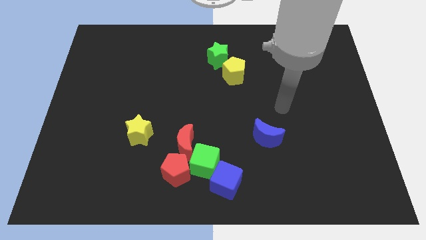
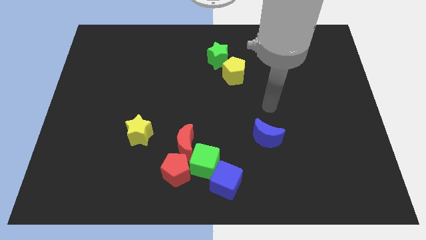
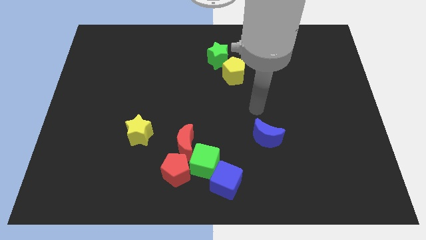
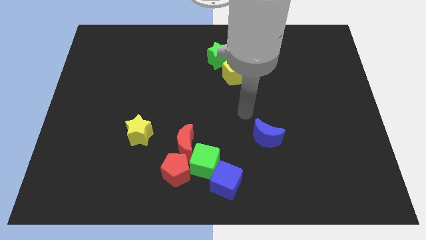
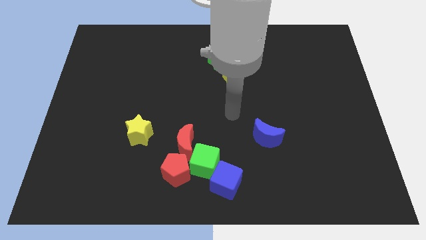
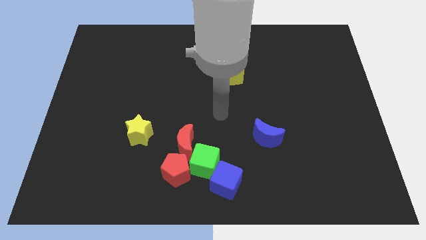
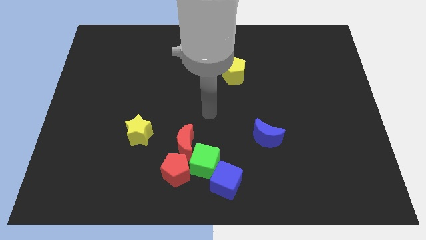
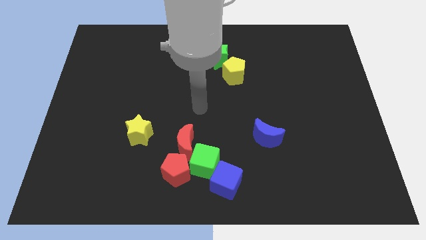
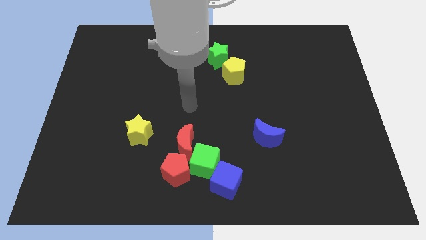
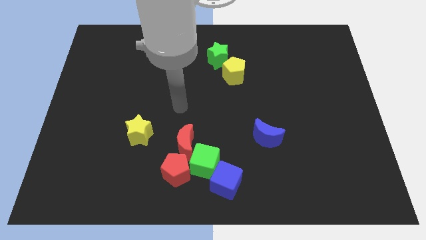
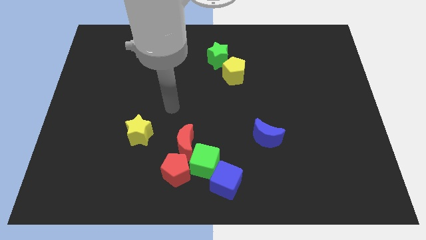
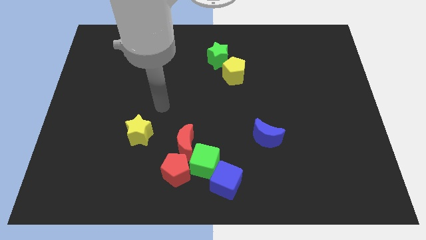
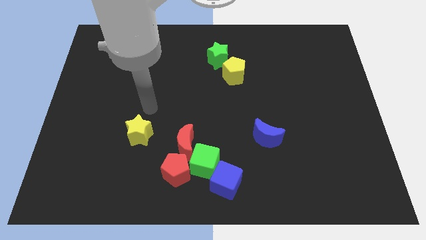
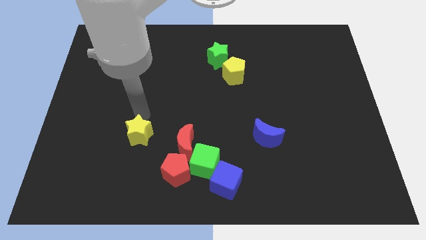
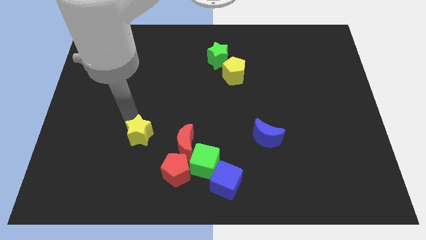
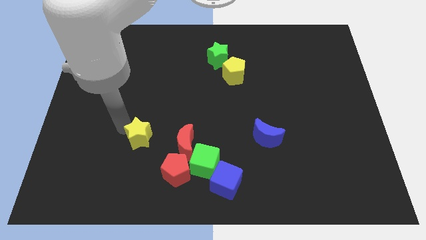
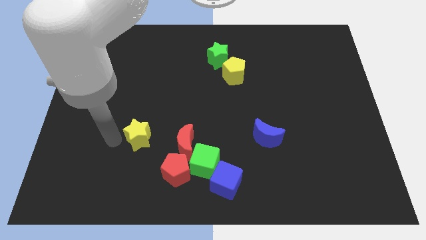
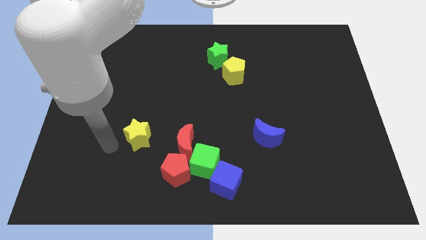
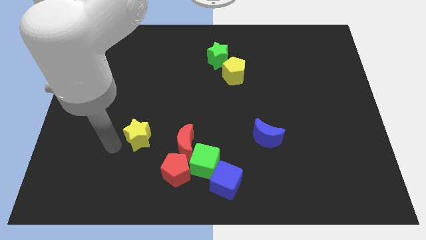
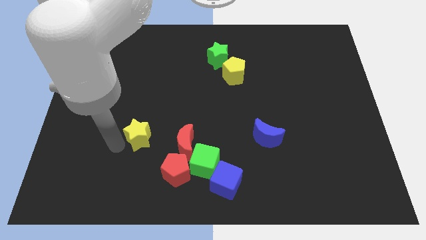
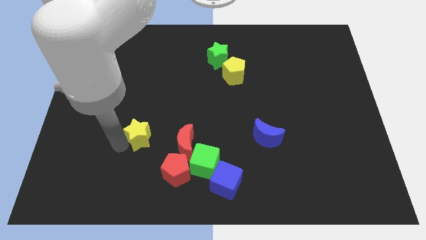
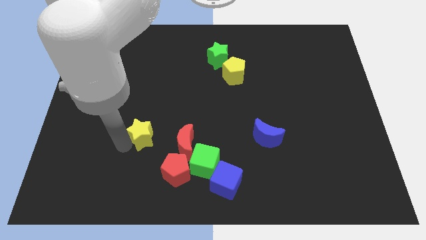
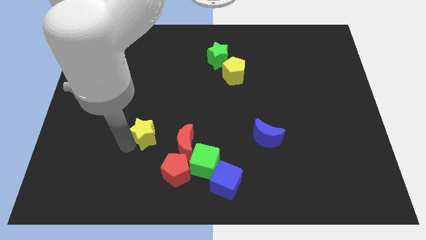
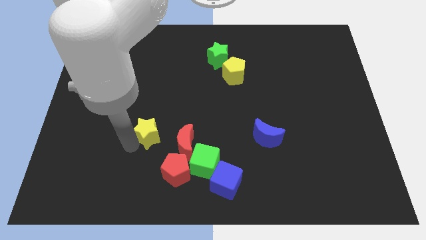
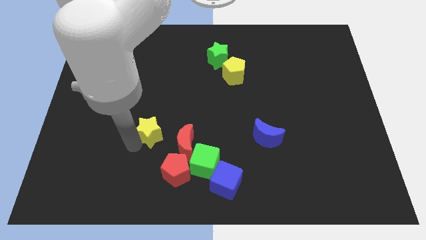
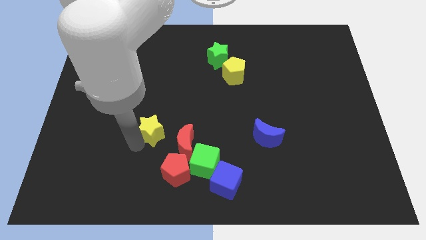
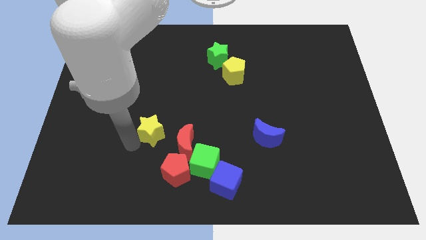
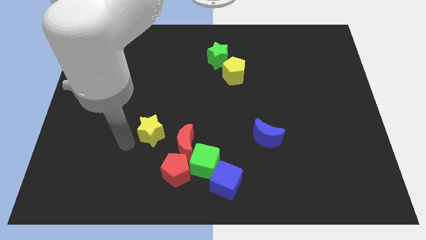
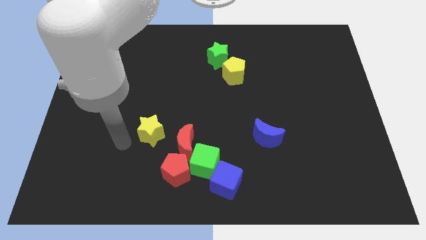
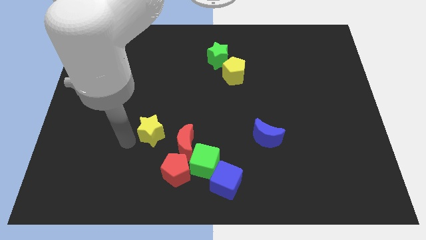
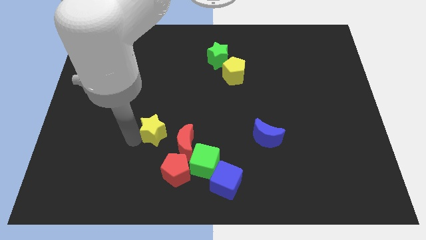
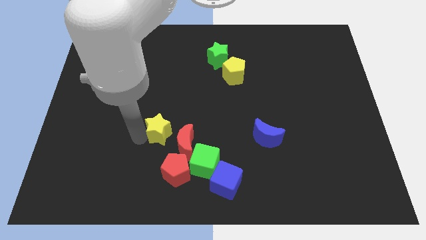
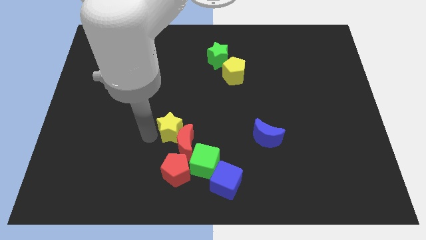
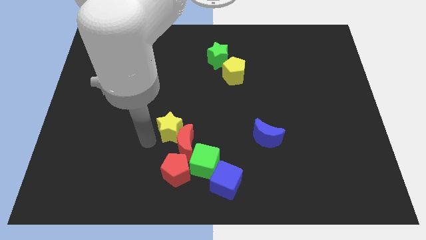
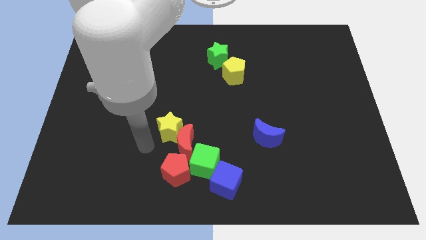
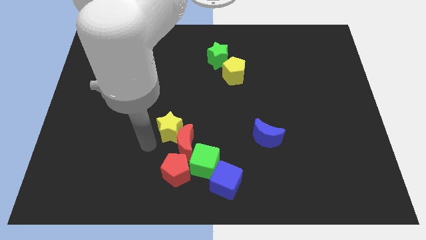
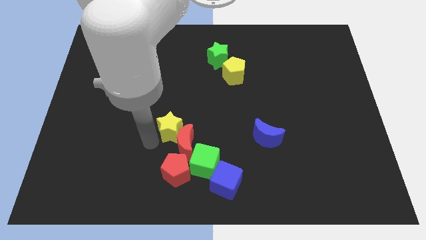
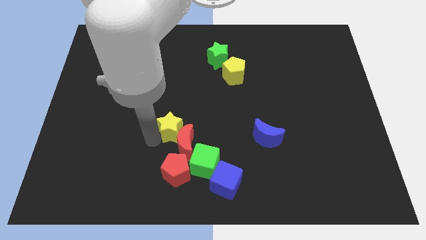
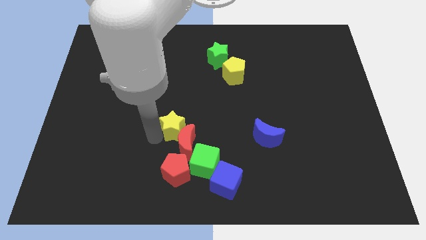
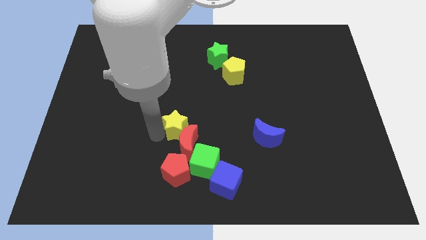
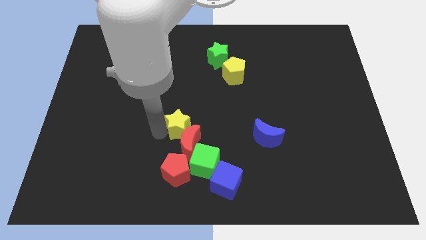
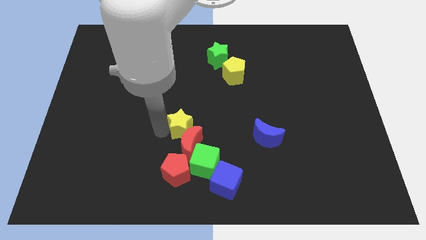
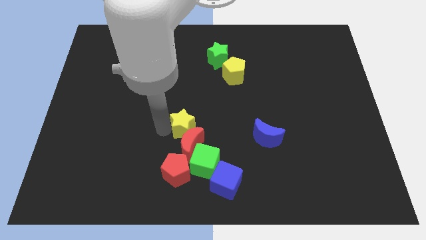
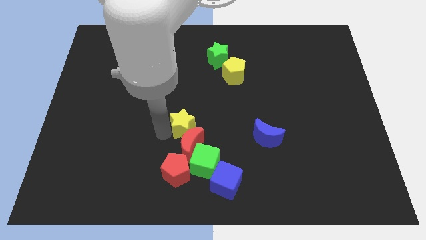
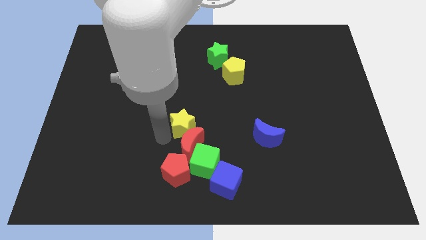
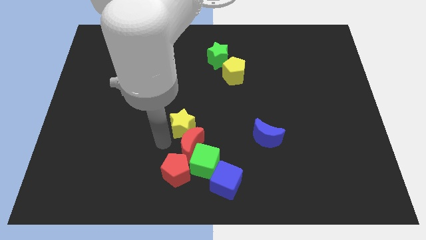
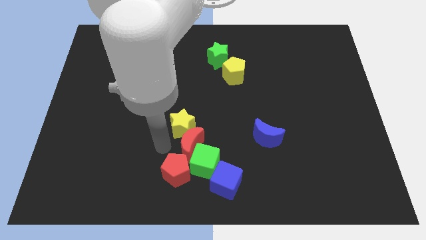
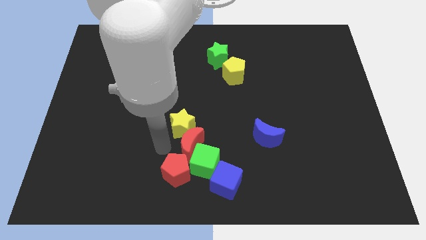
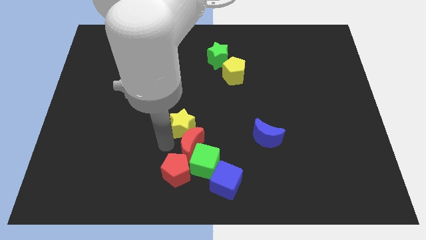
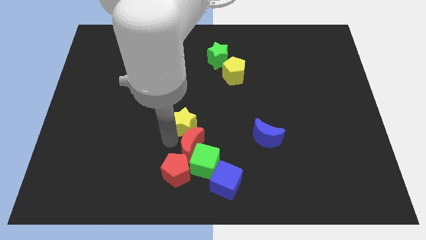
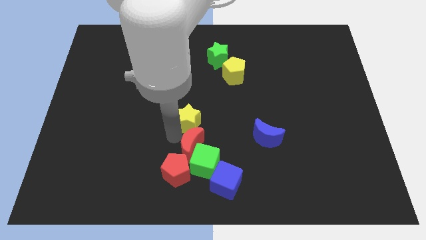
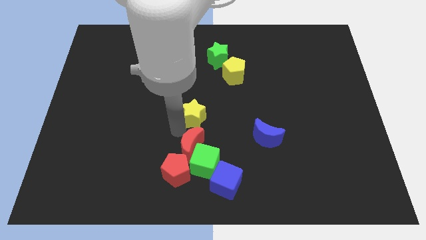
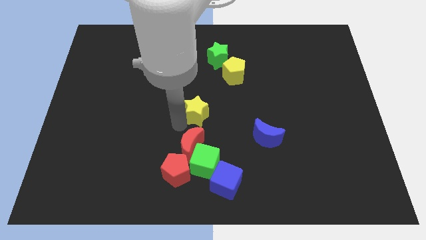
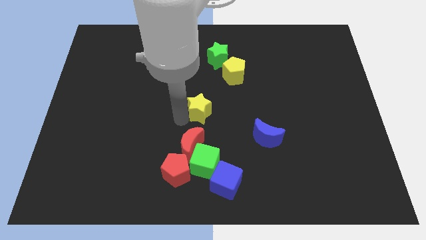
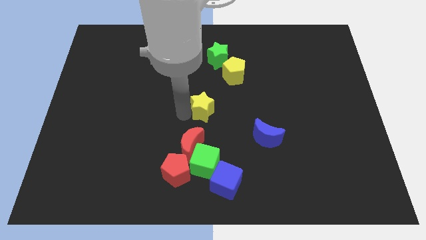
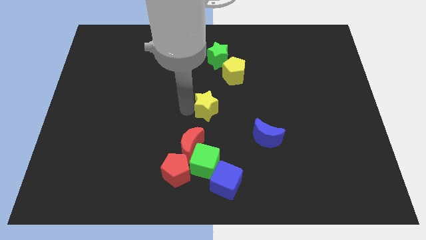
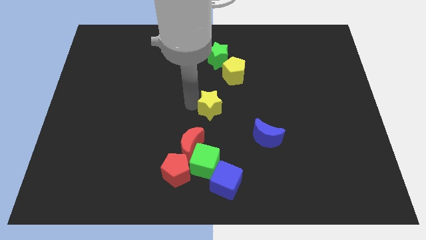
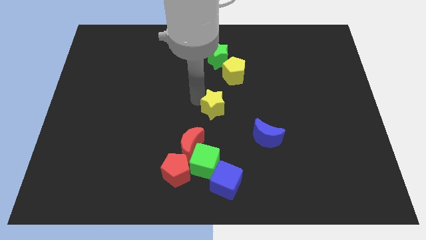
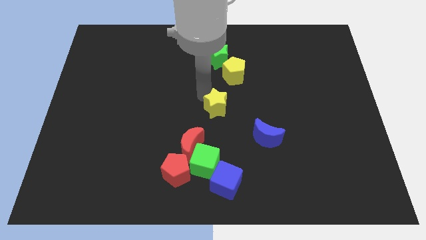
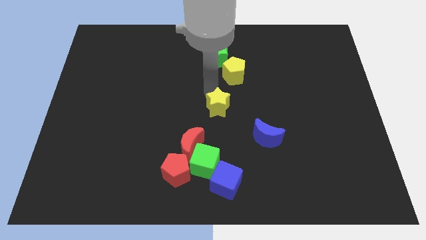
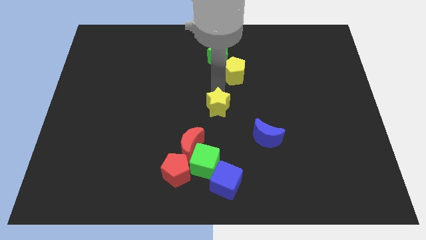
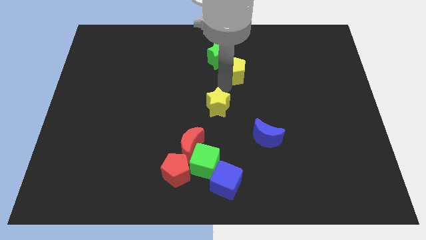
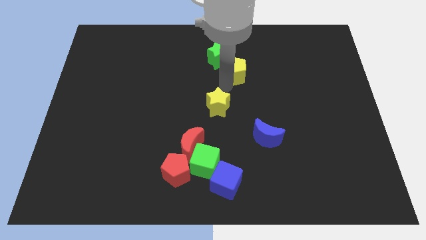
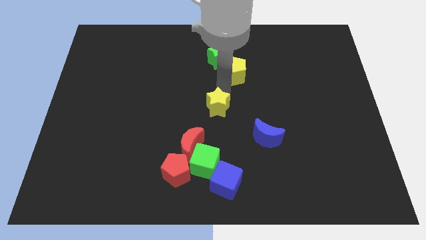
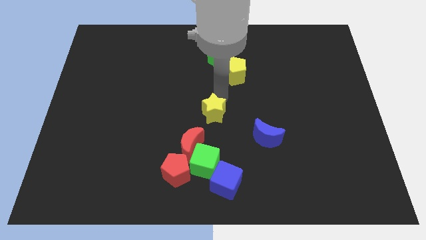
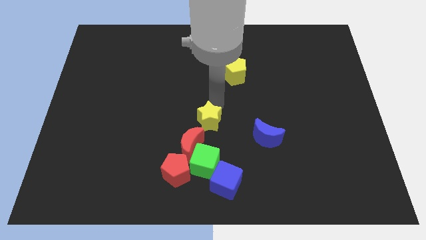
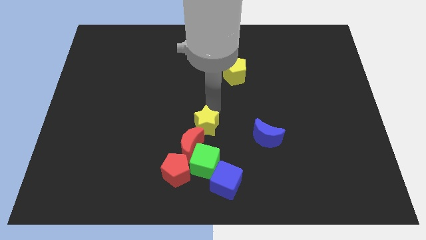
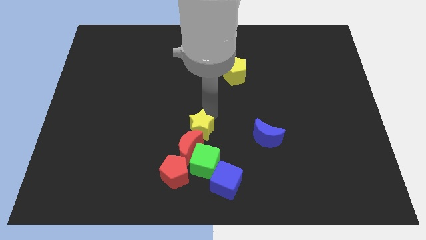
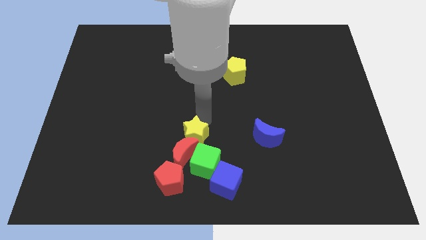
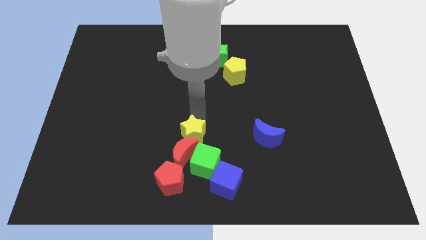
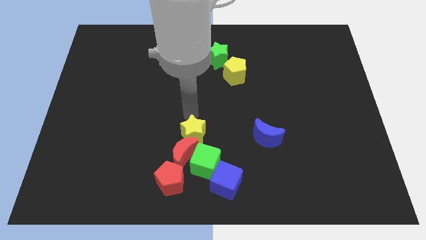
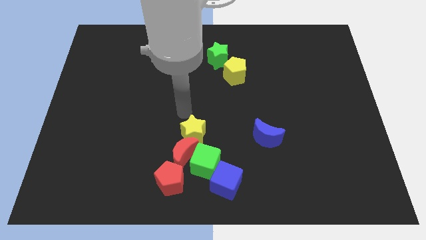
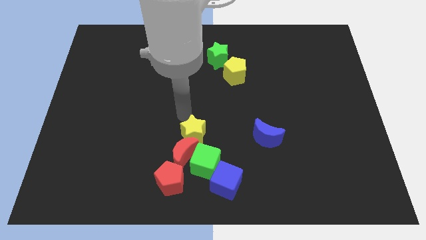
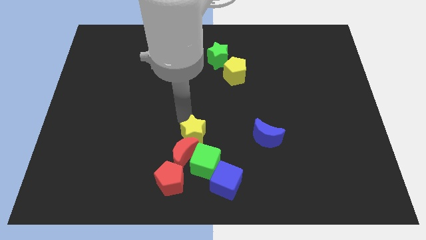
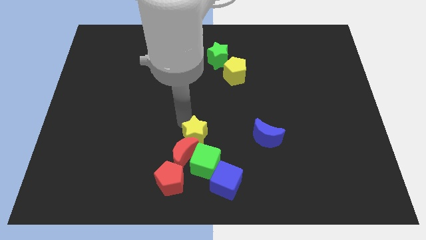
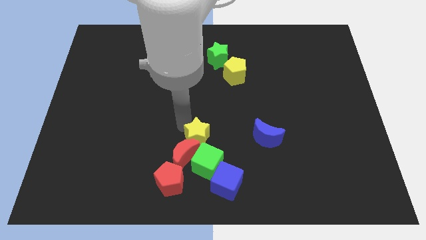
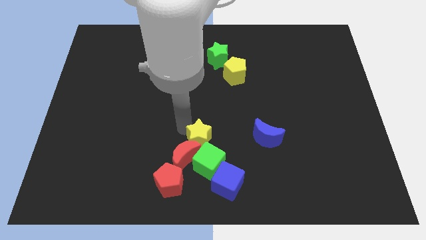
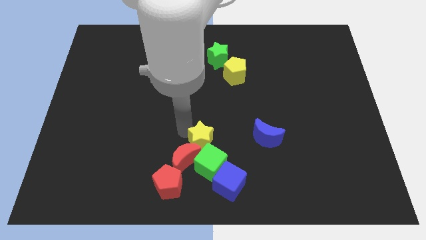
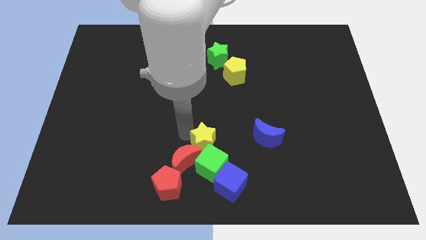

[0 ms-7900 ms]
push the yellow star to the green cube
